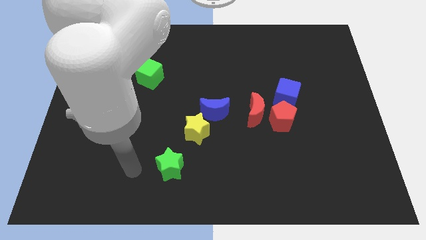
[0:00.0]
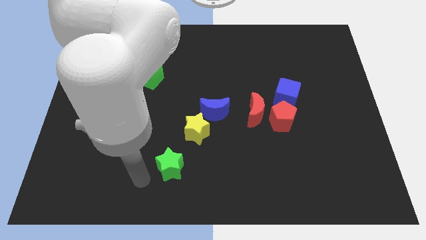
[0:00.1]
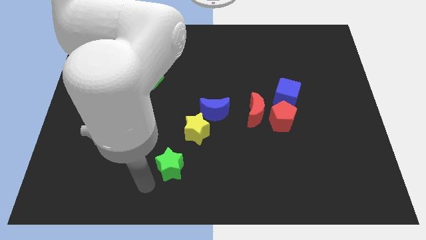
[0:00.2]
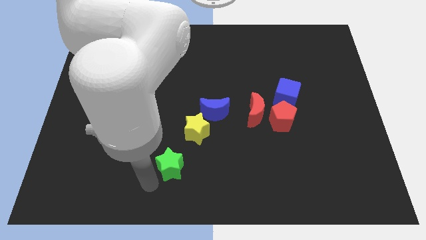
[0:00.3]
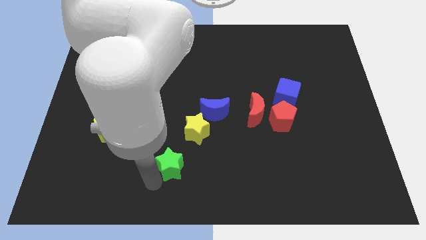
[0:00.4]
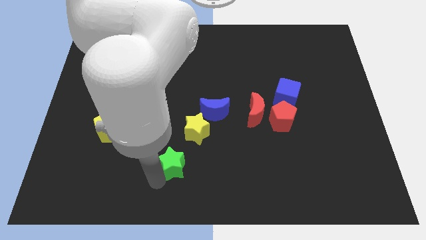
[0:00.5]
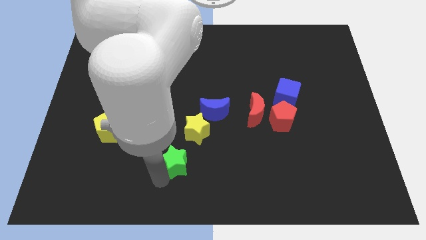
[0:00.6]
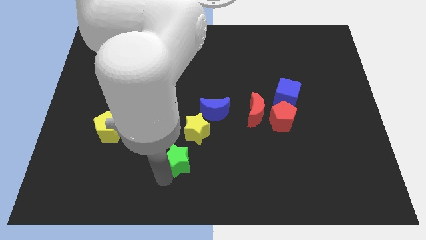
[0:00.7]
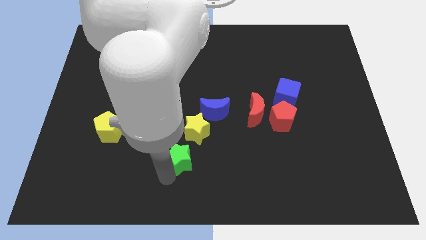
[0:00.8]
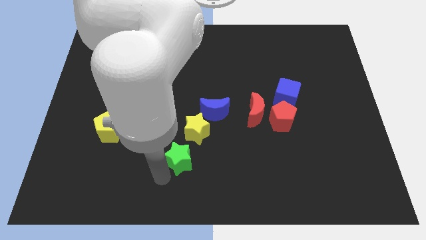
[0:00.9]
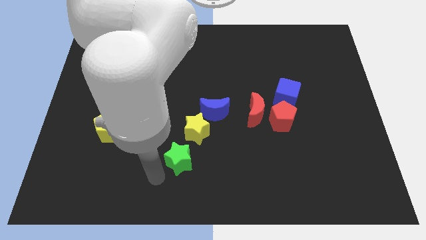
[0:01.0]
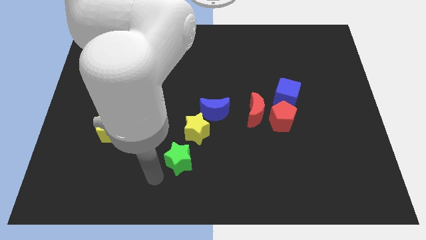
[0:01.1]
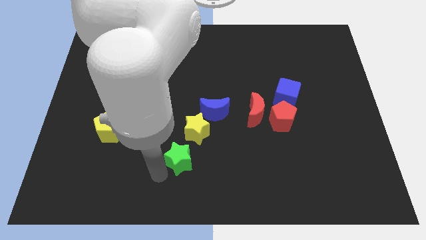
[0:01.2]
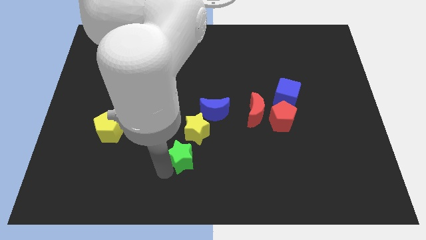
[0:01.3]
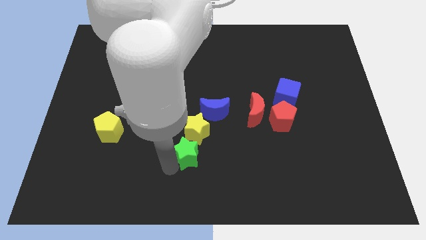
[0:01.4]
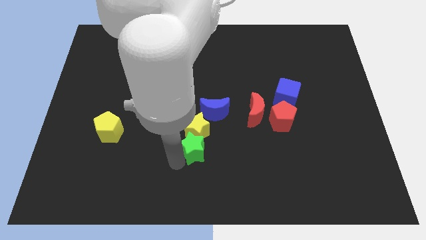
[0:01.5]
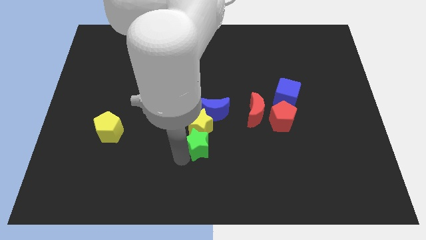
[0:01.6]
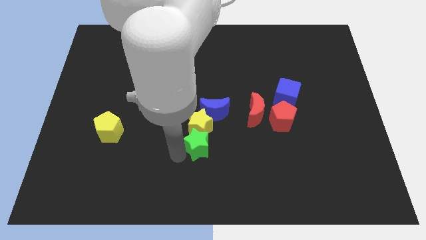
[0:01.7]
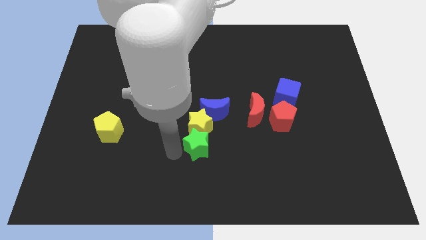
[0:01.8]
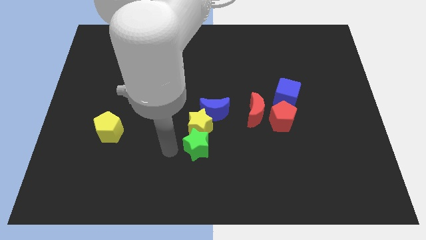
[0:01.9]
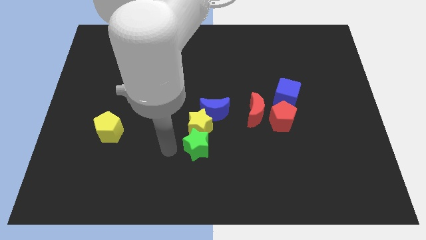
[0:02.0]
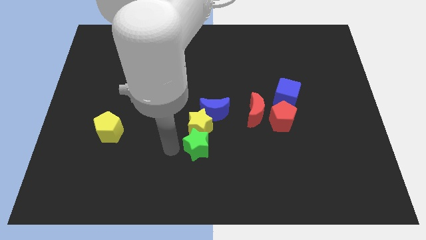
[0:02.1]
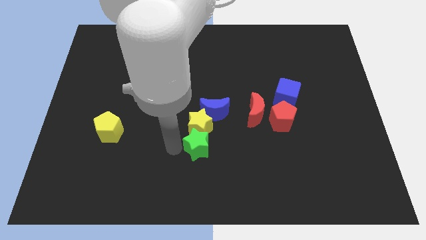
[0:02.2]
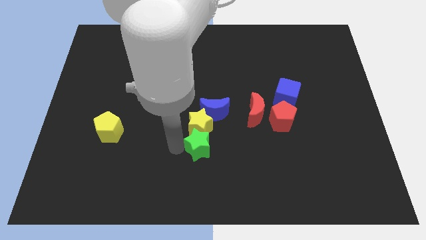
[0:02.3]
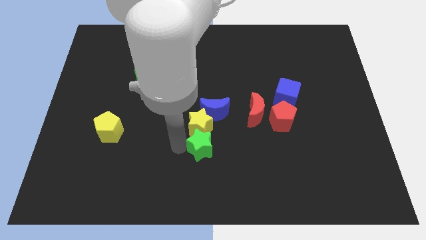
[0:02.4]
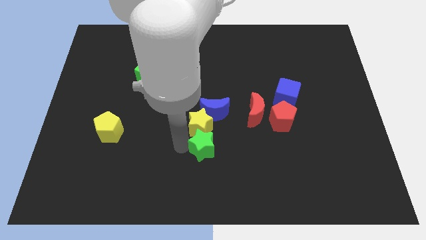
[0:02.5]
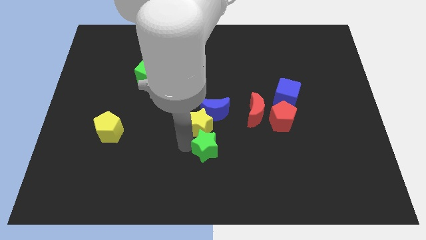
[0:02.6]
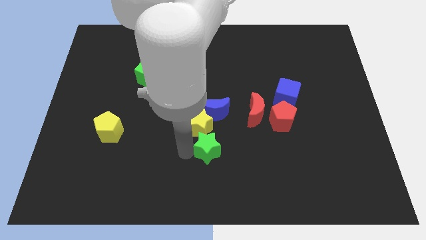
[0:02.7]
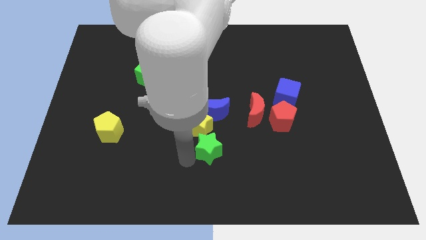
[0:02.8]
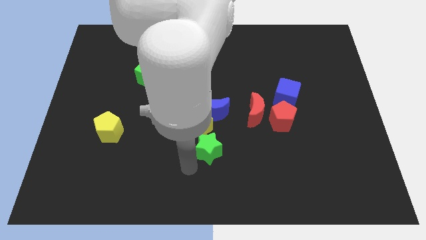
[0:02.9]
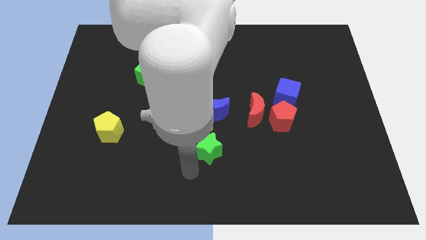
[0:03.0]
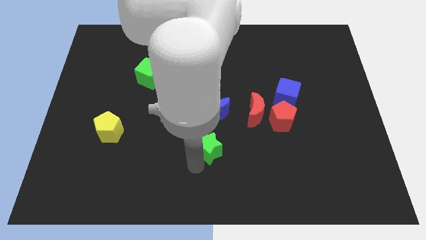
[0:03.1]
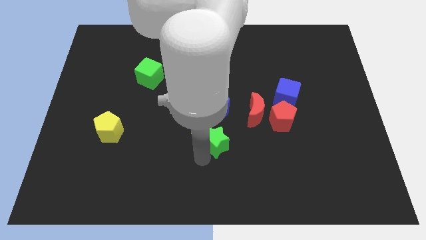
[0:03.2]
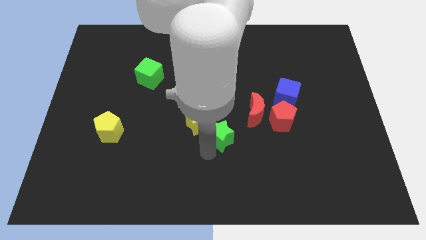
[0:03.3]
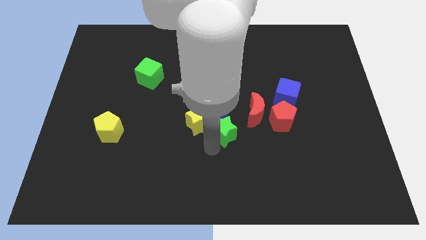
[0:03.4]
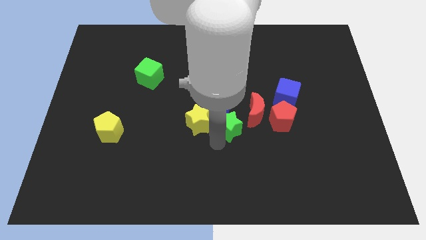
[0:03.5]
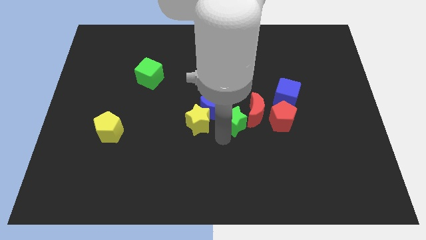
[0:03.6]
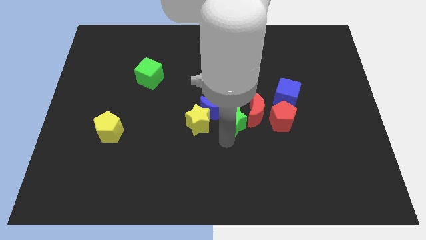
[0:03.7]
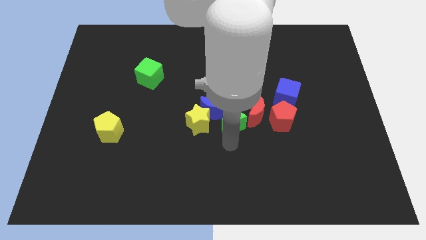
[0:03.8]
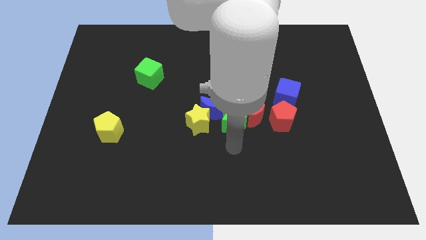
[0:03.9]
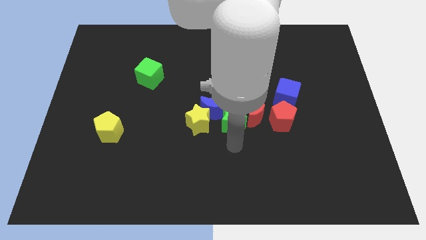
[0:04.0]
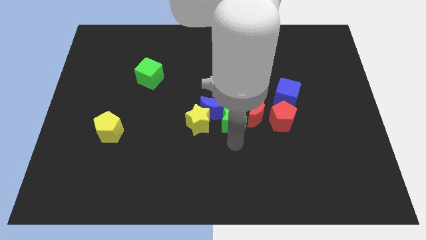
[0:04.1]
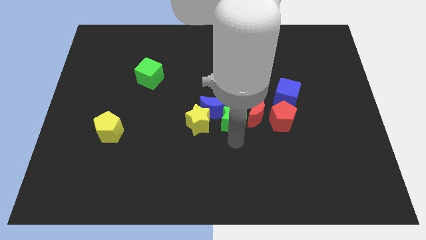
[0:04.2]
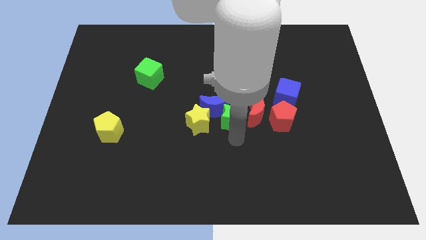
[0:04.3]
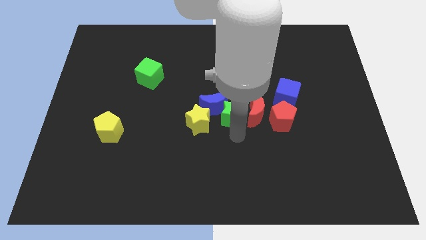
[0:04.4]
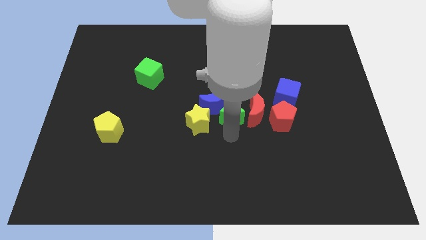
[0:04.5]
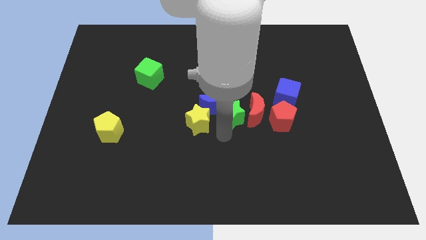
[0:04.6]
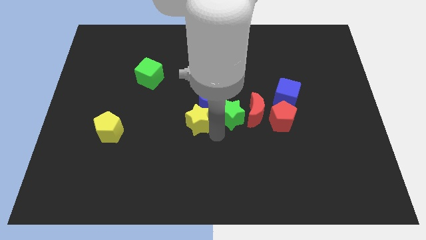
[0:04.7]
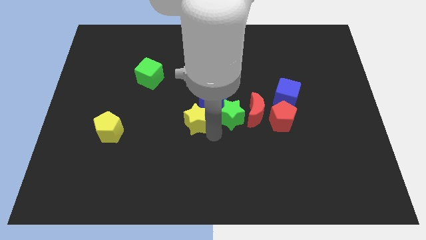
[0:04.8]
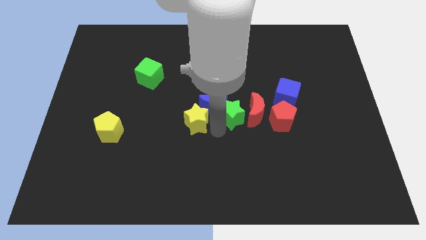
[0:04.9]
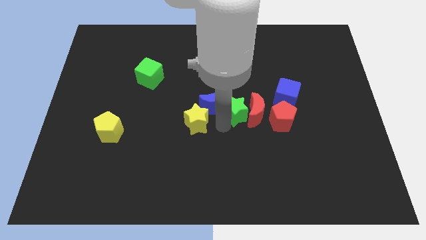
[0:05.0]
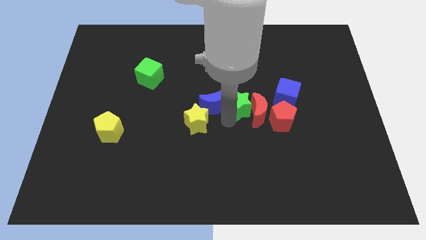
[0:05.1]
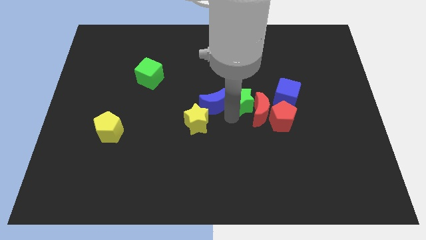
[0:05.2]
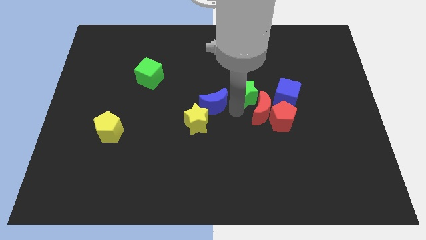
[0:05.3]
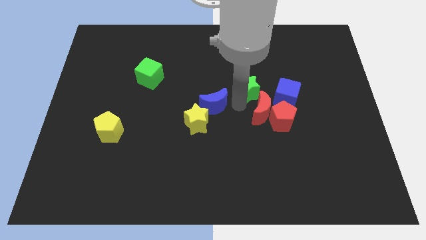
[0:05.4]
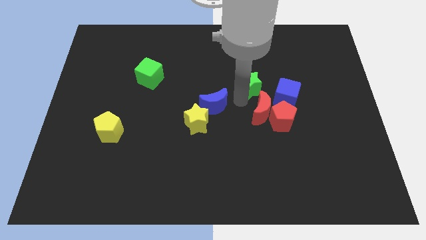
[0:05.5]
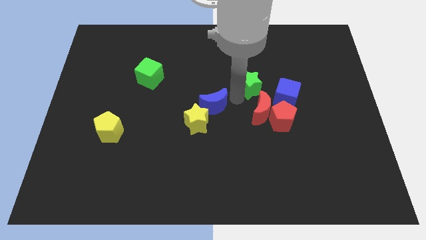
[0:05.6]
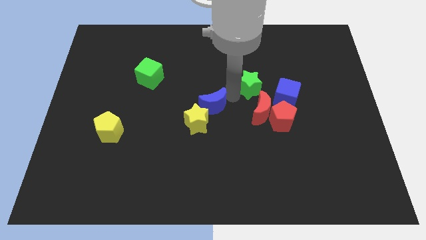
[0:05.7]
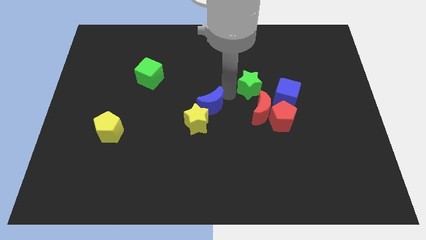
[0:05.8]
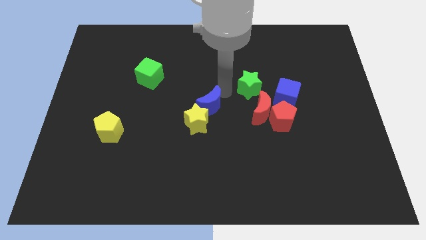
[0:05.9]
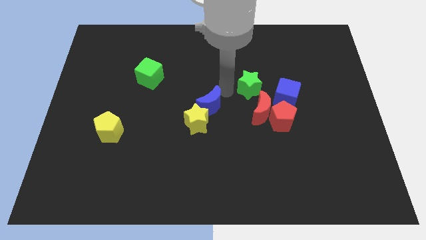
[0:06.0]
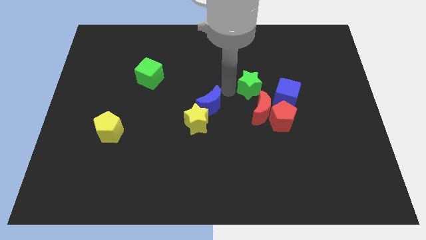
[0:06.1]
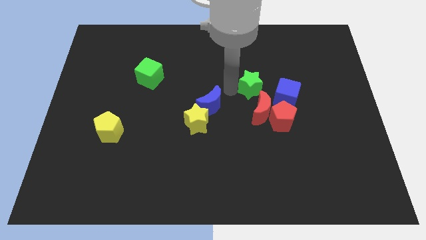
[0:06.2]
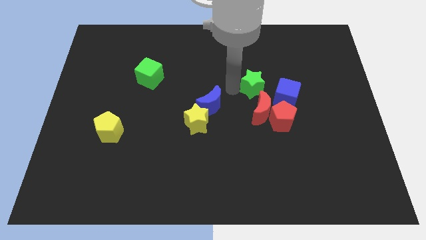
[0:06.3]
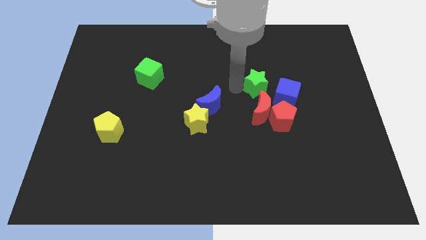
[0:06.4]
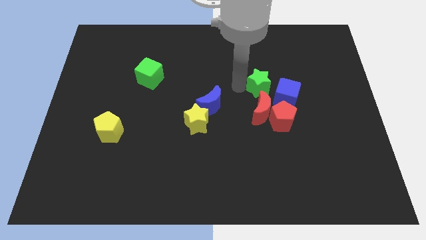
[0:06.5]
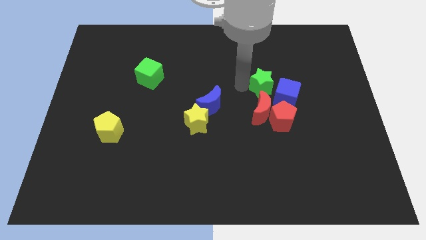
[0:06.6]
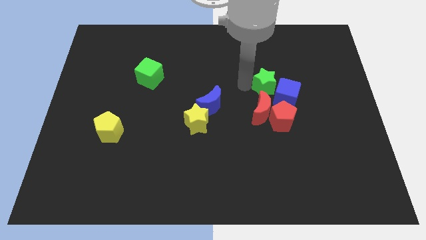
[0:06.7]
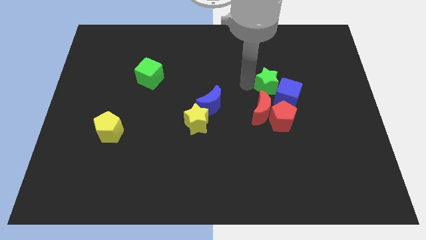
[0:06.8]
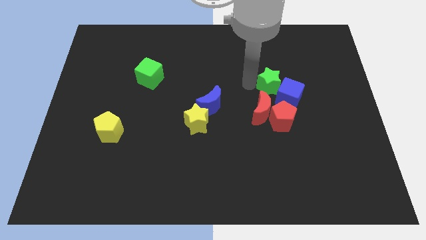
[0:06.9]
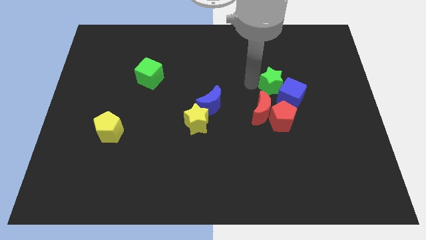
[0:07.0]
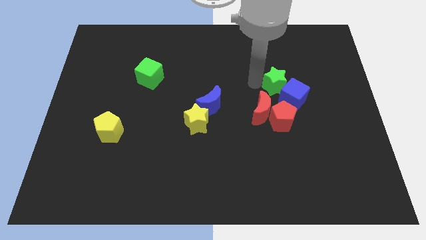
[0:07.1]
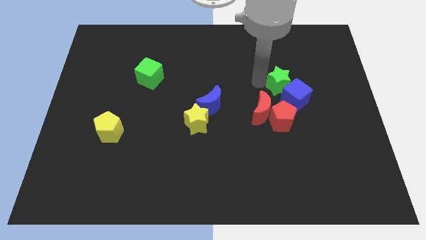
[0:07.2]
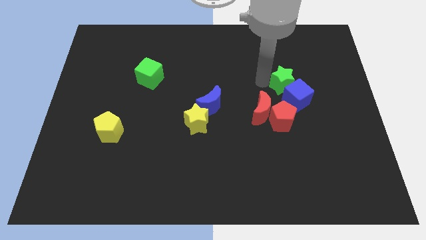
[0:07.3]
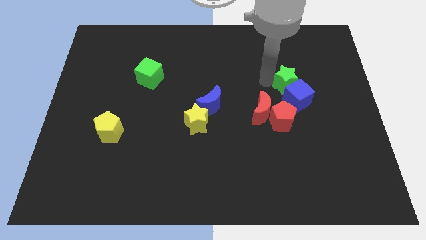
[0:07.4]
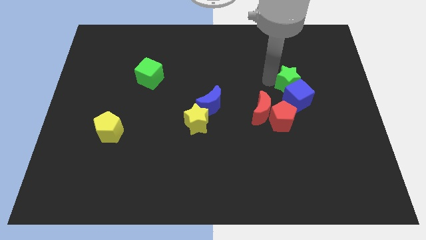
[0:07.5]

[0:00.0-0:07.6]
move the green star diagonally up and to the right of the blue cube
